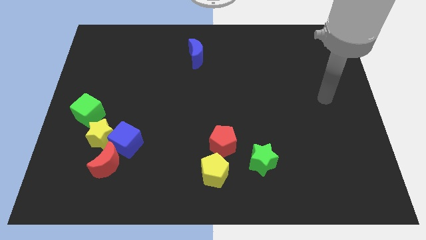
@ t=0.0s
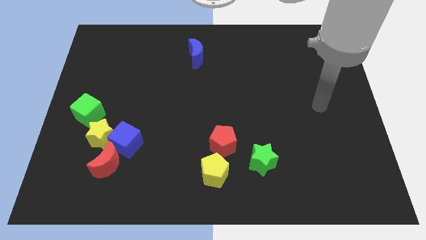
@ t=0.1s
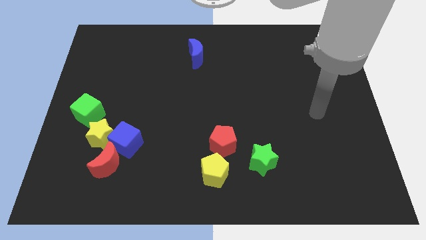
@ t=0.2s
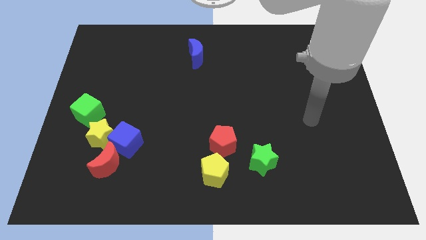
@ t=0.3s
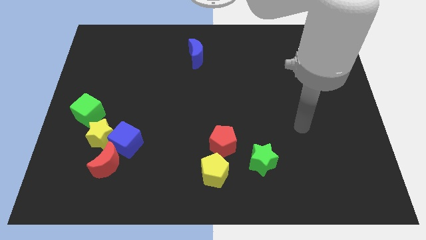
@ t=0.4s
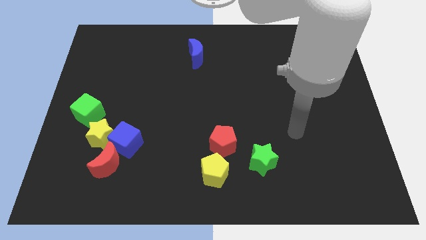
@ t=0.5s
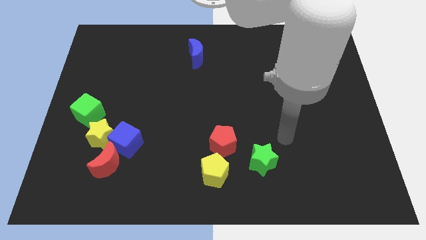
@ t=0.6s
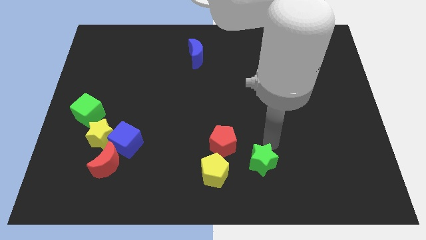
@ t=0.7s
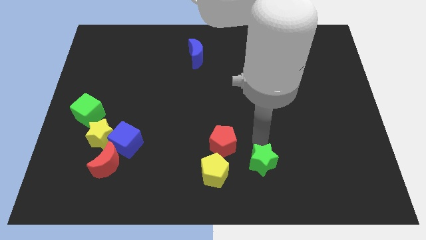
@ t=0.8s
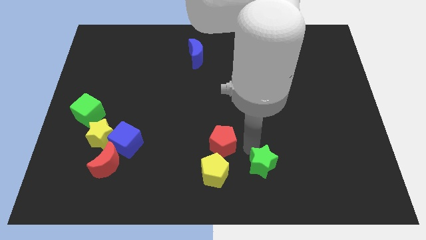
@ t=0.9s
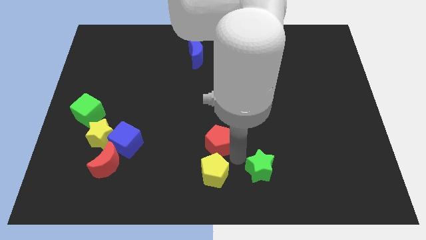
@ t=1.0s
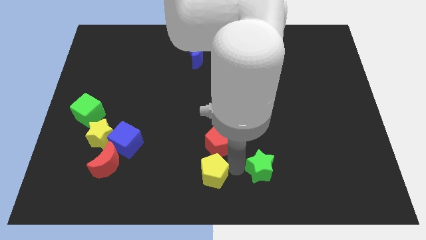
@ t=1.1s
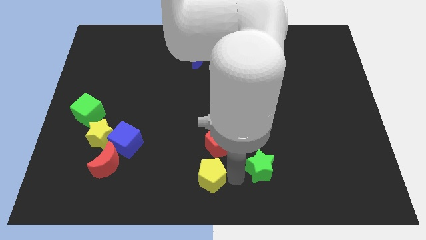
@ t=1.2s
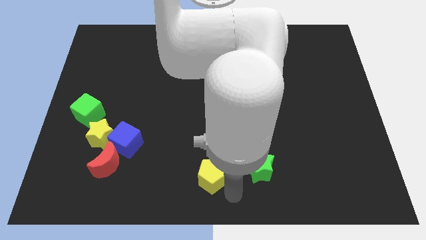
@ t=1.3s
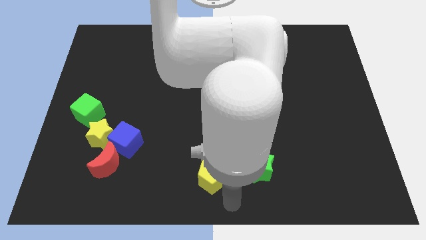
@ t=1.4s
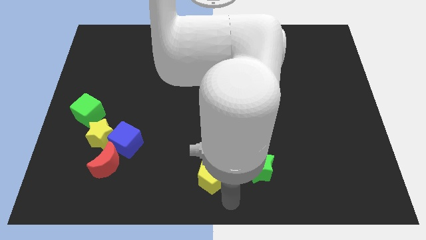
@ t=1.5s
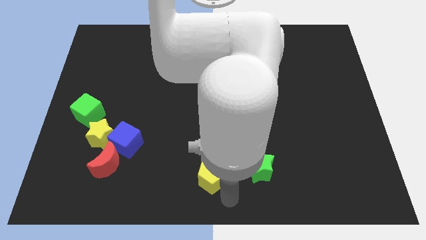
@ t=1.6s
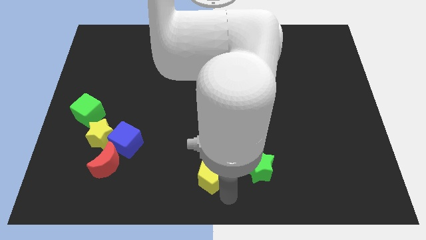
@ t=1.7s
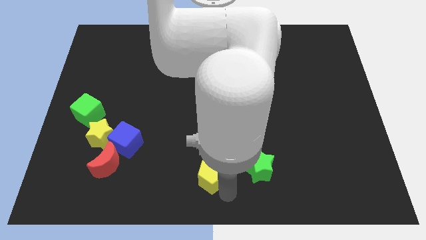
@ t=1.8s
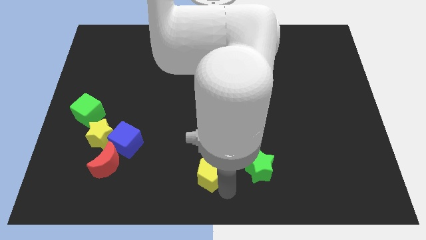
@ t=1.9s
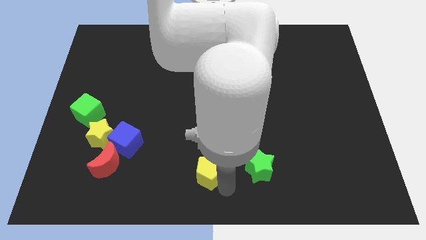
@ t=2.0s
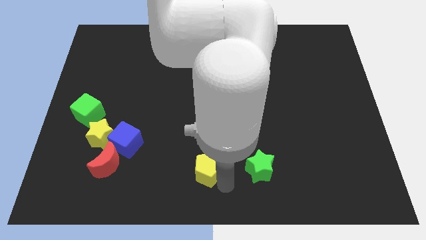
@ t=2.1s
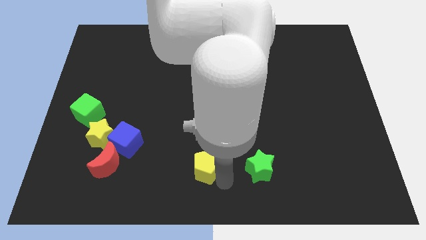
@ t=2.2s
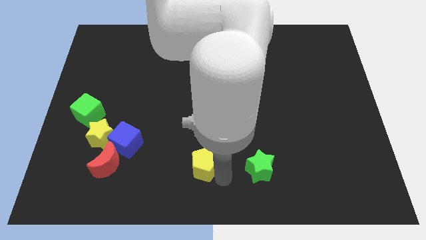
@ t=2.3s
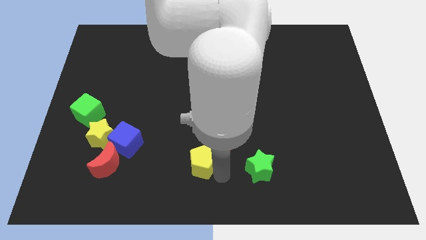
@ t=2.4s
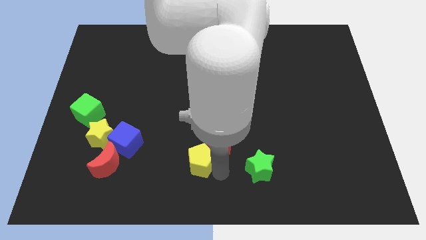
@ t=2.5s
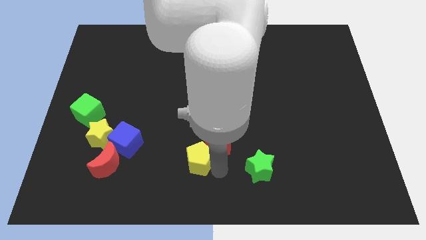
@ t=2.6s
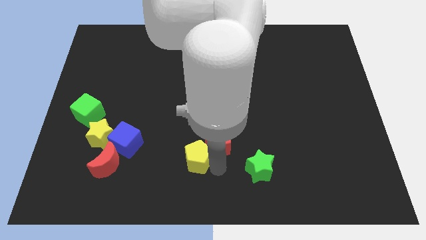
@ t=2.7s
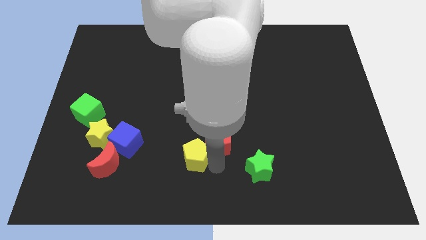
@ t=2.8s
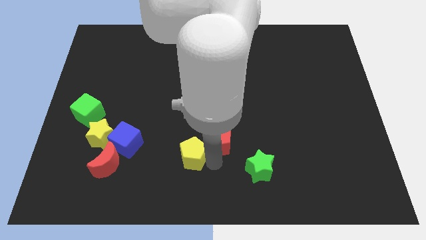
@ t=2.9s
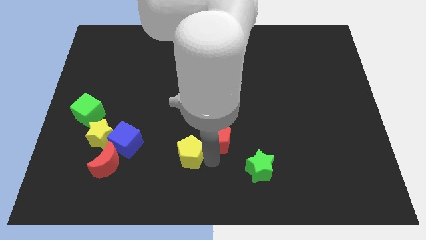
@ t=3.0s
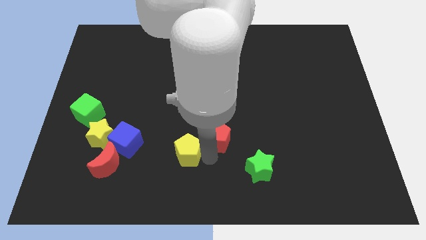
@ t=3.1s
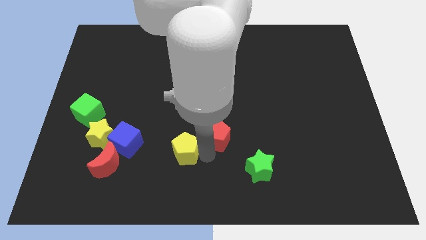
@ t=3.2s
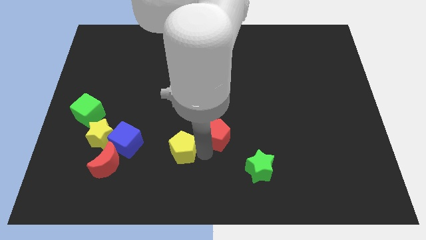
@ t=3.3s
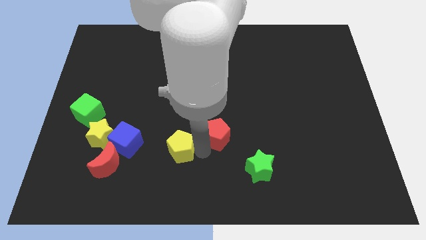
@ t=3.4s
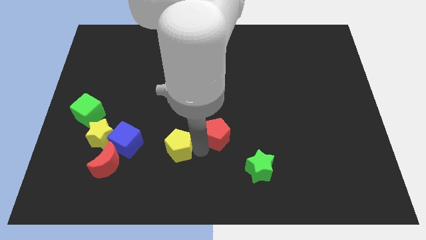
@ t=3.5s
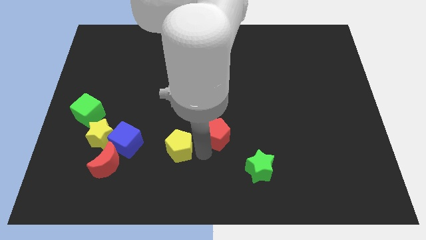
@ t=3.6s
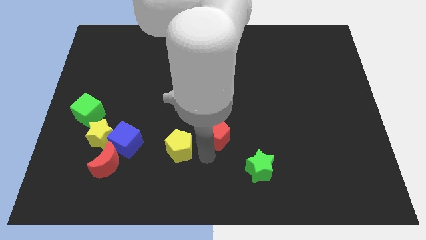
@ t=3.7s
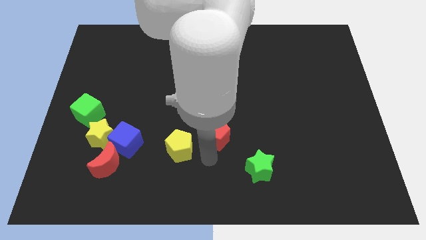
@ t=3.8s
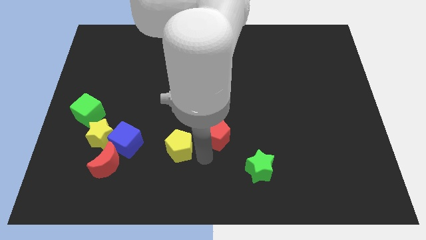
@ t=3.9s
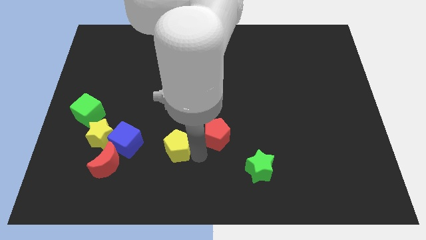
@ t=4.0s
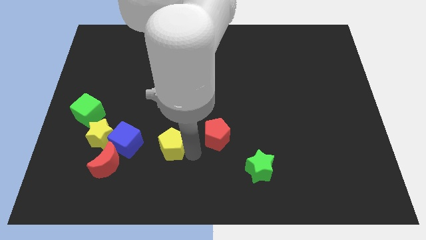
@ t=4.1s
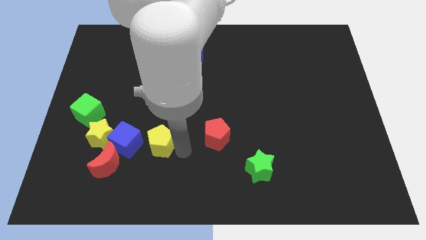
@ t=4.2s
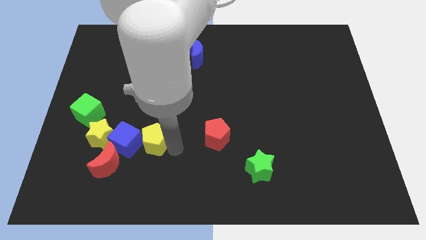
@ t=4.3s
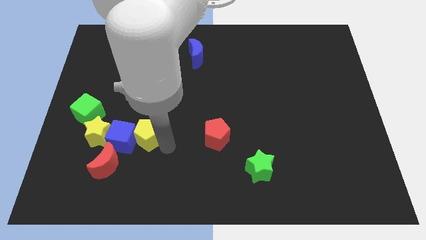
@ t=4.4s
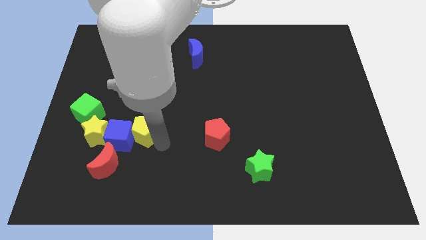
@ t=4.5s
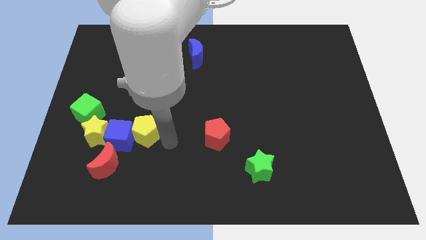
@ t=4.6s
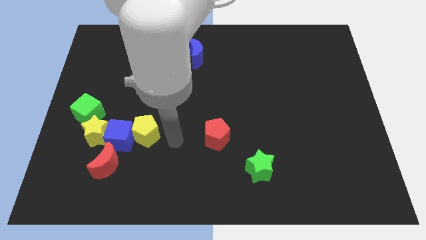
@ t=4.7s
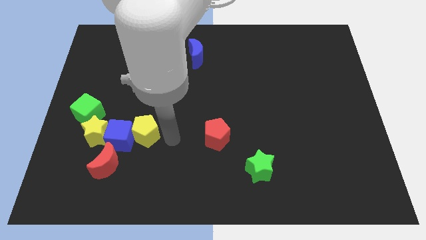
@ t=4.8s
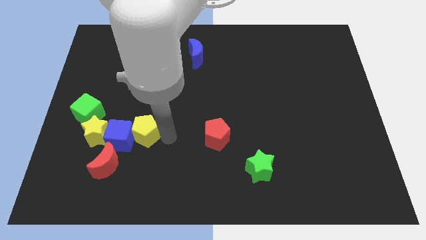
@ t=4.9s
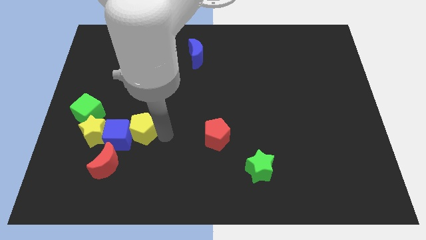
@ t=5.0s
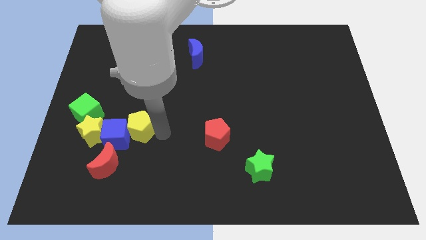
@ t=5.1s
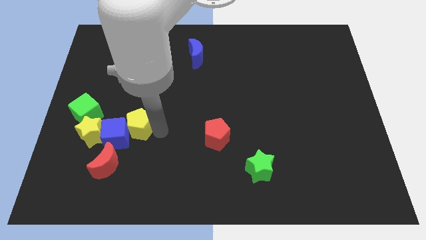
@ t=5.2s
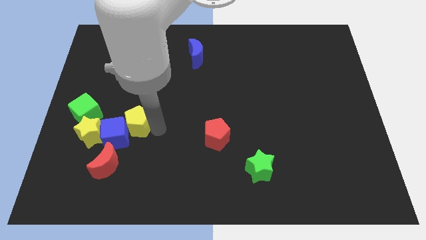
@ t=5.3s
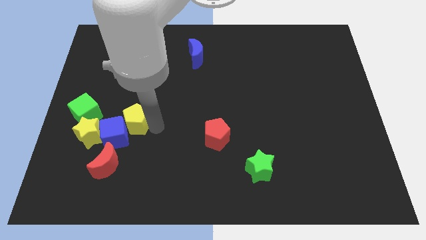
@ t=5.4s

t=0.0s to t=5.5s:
slide the yellow pentagon to the top of the red moon
